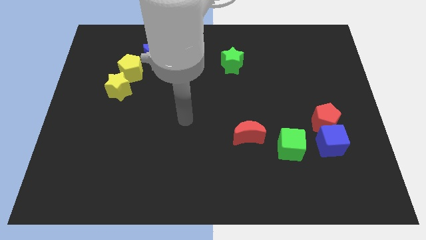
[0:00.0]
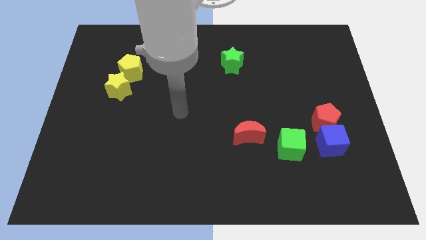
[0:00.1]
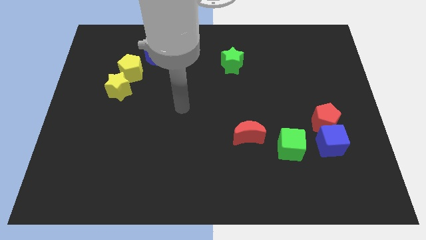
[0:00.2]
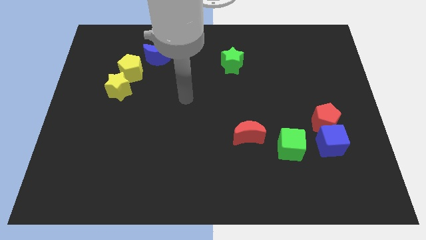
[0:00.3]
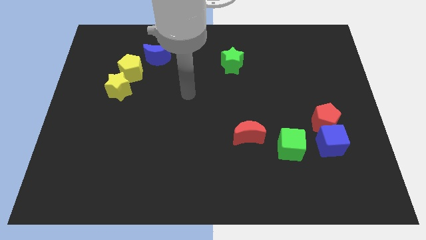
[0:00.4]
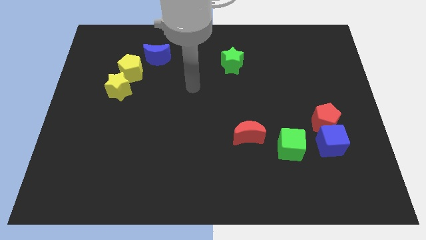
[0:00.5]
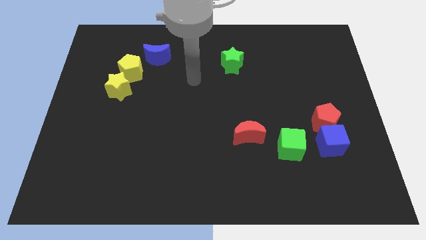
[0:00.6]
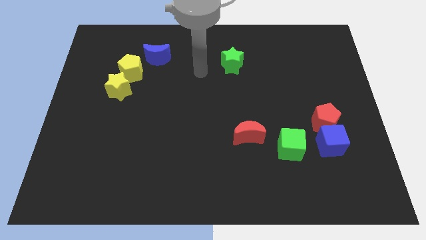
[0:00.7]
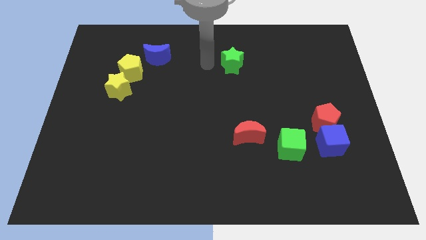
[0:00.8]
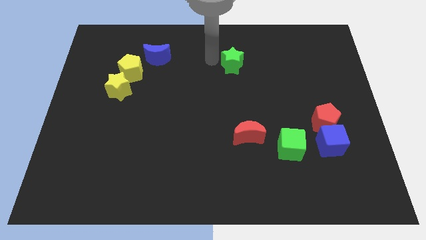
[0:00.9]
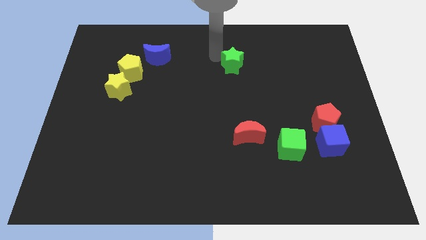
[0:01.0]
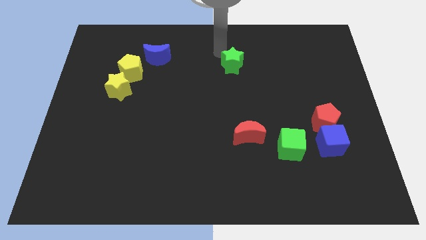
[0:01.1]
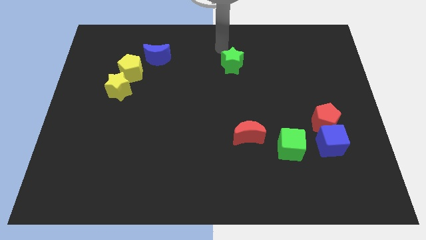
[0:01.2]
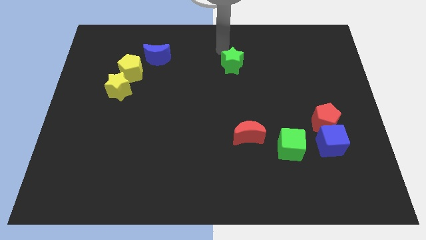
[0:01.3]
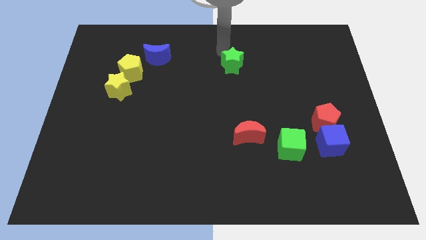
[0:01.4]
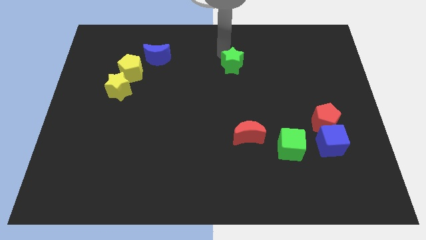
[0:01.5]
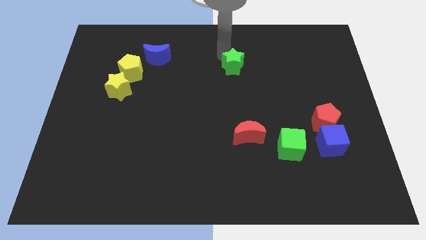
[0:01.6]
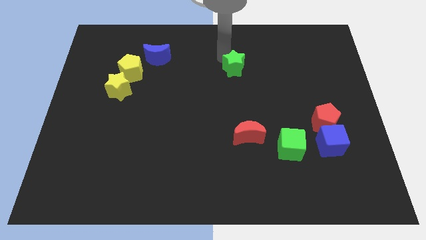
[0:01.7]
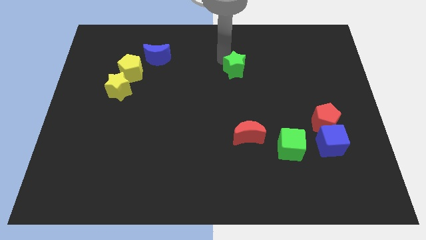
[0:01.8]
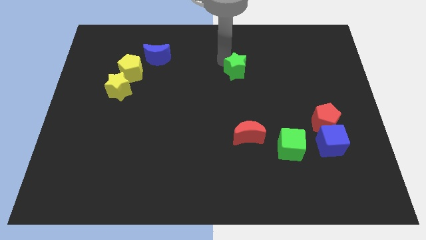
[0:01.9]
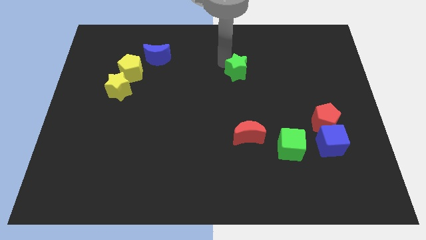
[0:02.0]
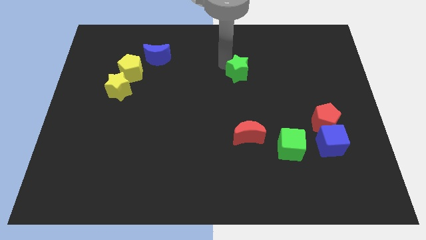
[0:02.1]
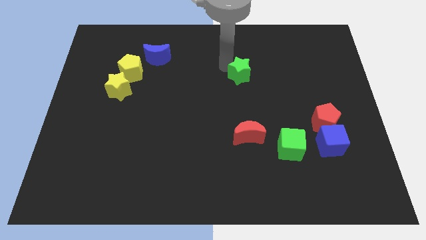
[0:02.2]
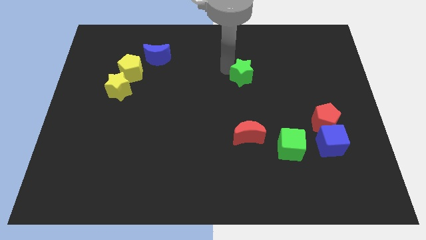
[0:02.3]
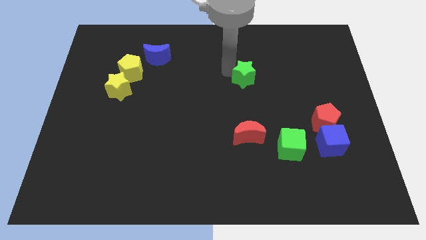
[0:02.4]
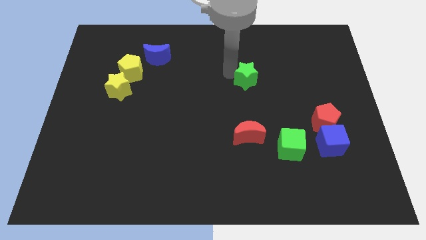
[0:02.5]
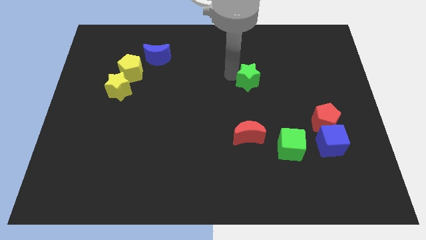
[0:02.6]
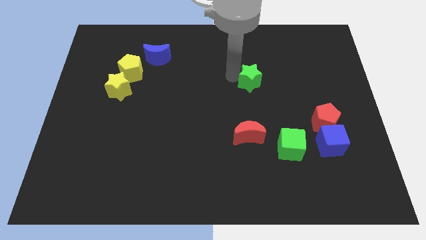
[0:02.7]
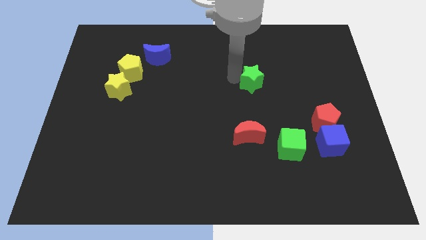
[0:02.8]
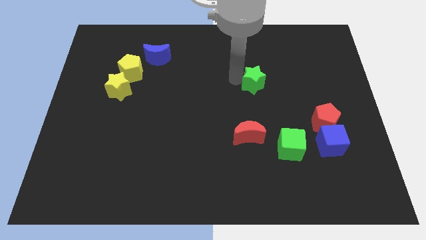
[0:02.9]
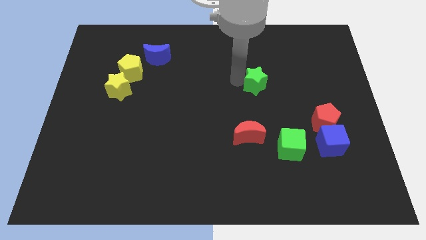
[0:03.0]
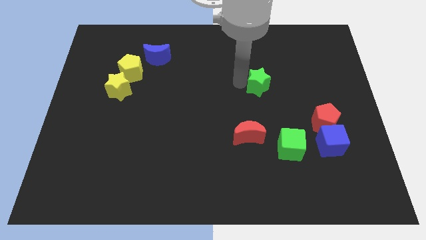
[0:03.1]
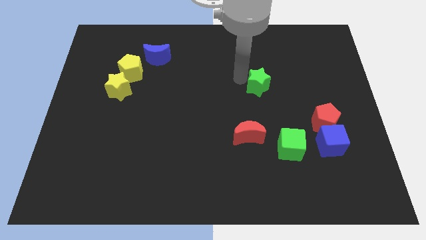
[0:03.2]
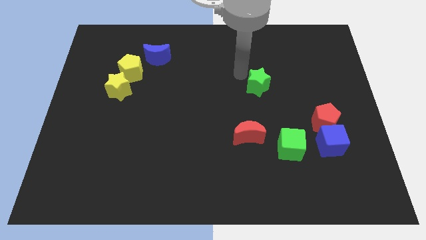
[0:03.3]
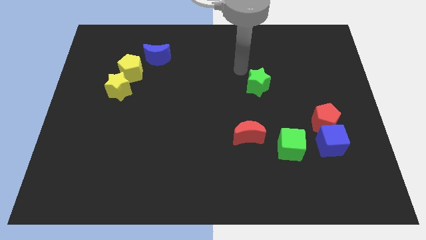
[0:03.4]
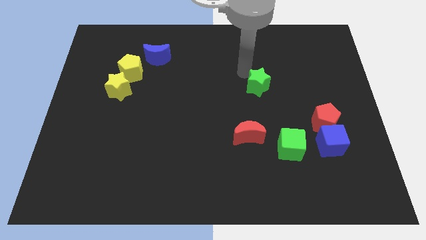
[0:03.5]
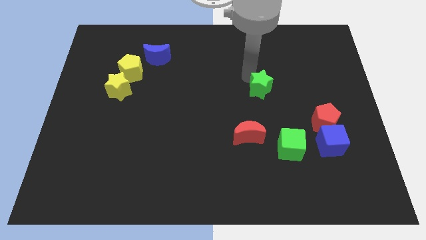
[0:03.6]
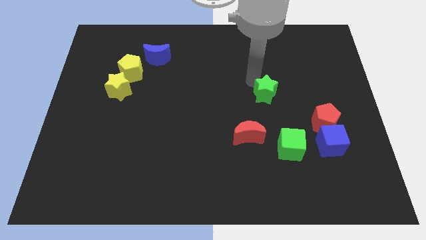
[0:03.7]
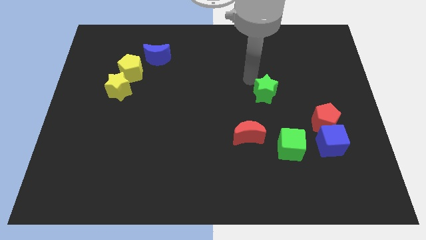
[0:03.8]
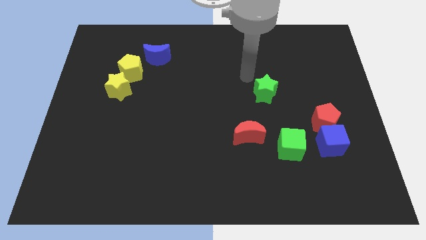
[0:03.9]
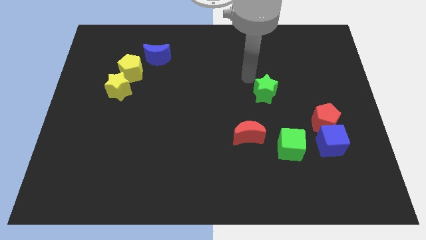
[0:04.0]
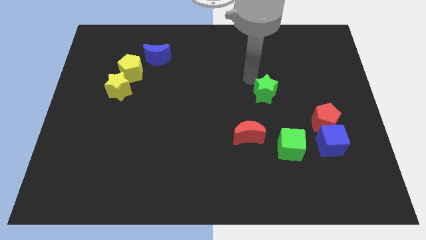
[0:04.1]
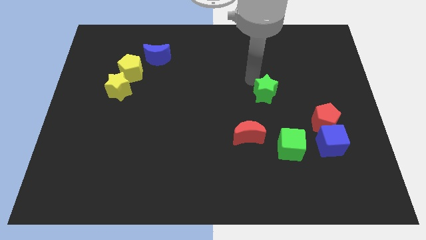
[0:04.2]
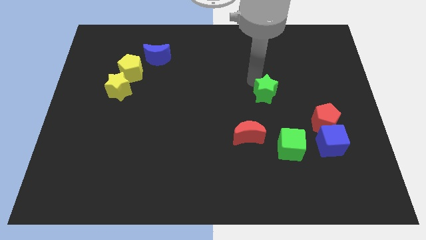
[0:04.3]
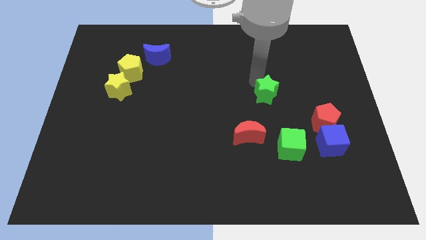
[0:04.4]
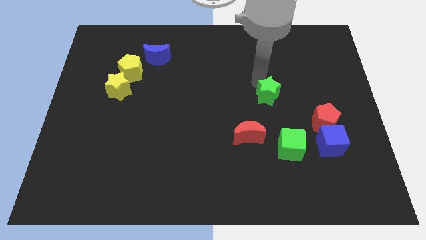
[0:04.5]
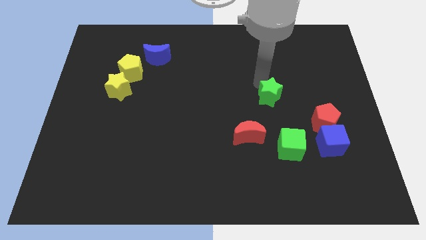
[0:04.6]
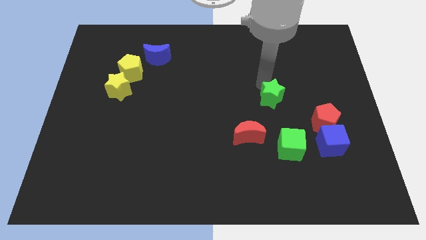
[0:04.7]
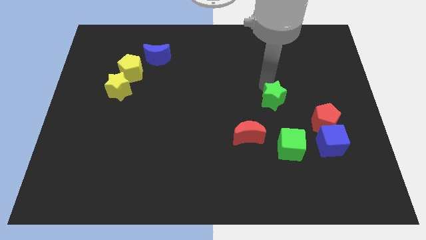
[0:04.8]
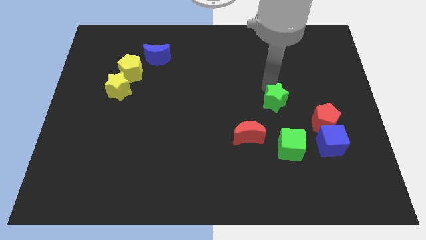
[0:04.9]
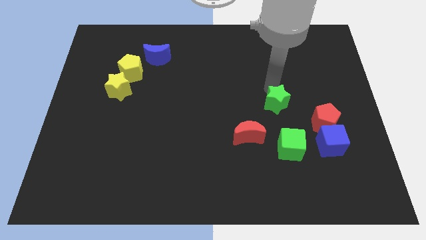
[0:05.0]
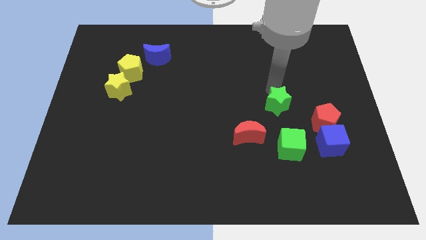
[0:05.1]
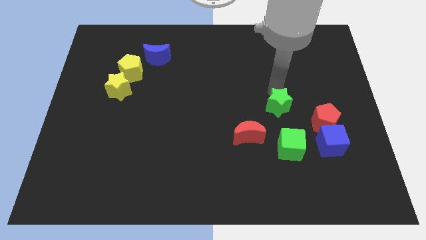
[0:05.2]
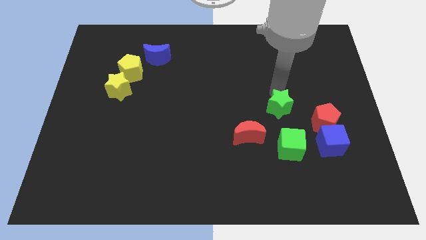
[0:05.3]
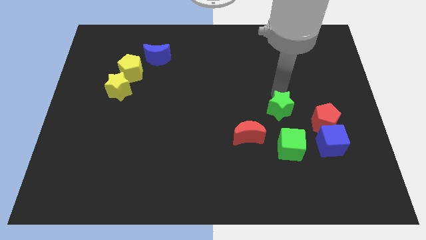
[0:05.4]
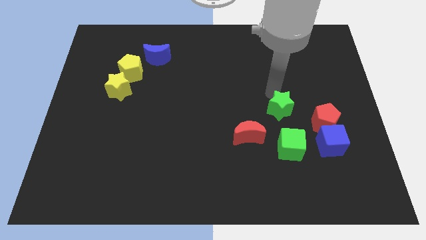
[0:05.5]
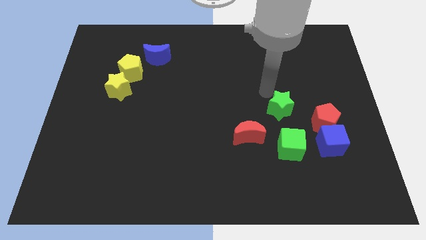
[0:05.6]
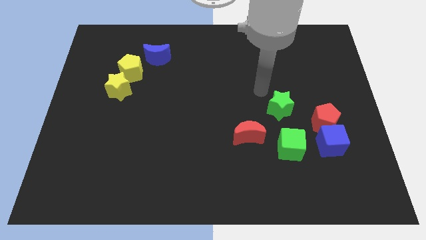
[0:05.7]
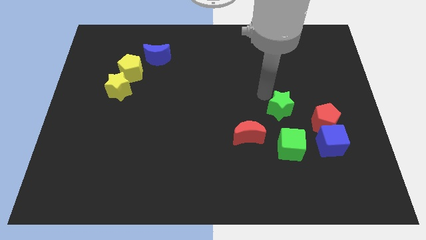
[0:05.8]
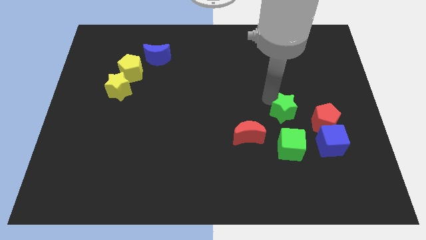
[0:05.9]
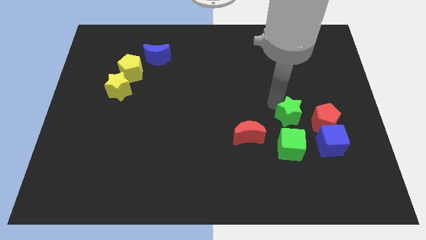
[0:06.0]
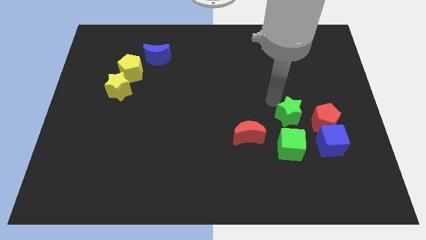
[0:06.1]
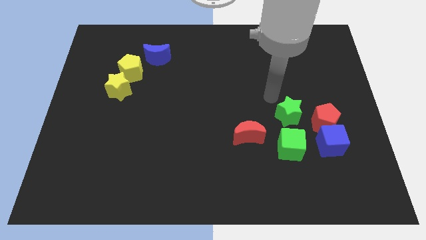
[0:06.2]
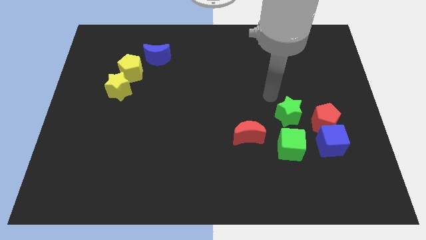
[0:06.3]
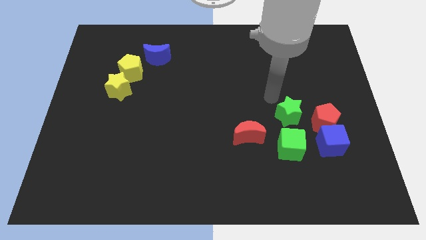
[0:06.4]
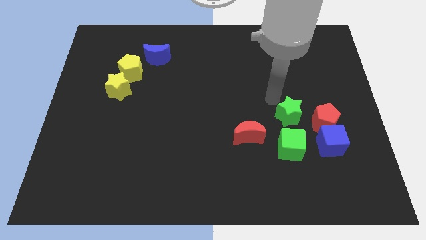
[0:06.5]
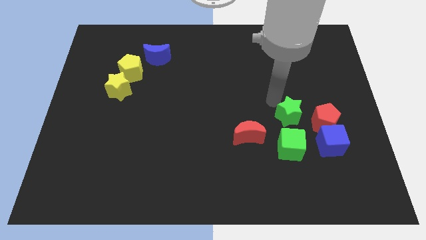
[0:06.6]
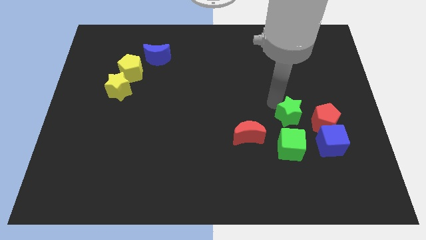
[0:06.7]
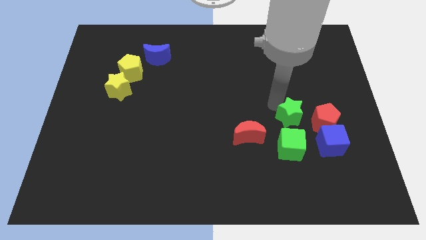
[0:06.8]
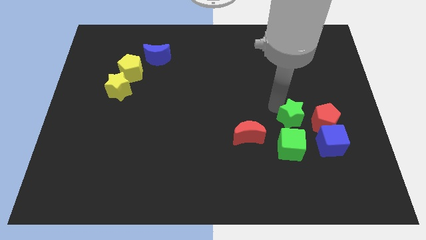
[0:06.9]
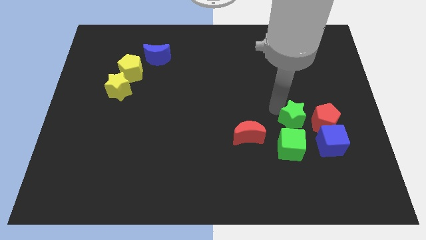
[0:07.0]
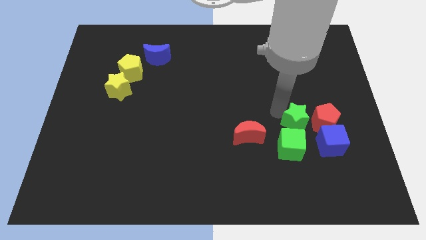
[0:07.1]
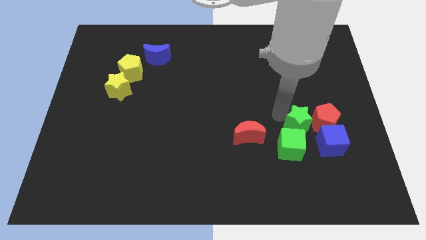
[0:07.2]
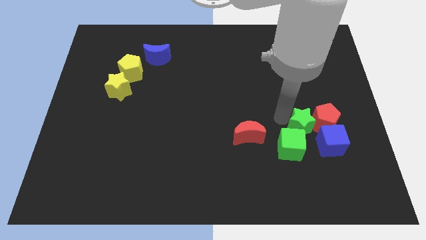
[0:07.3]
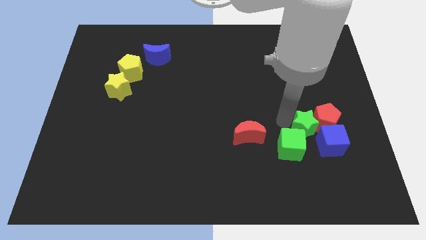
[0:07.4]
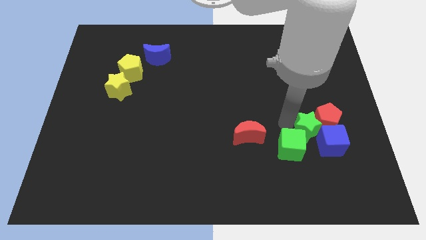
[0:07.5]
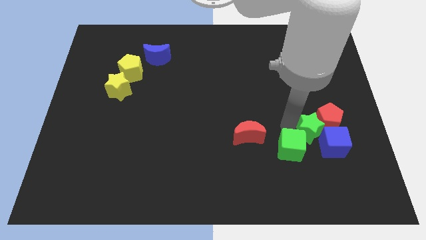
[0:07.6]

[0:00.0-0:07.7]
move the green star towards the blue cube
